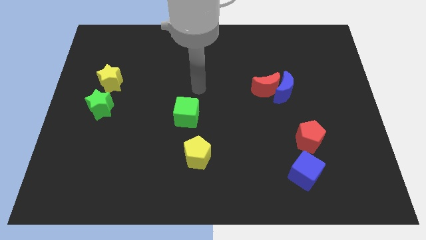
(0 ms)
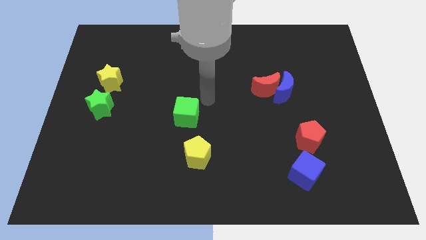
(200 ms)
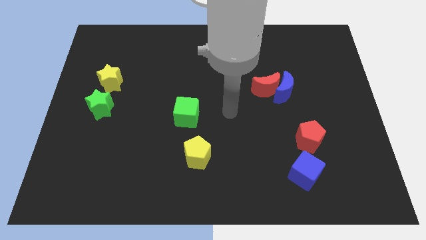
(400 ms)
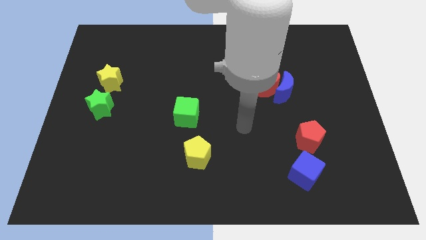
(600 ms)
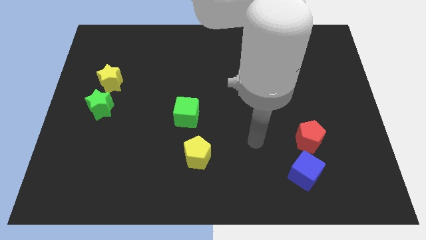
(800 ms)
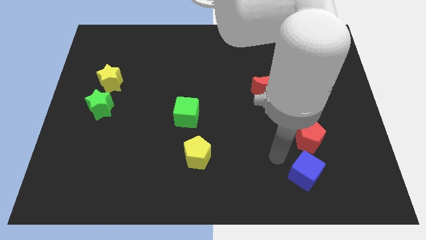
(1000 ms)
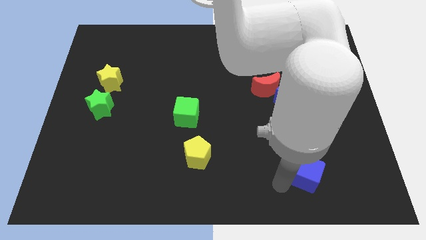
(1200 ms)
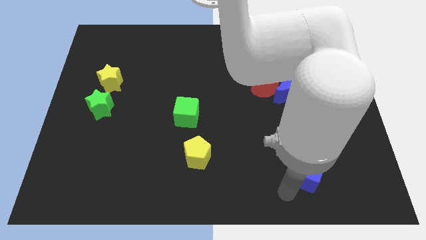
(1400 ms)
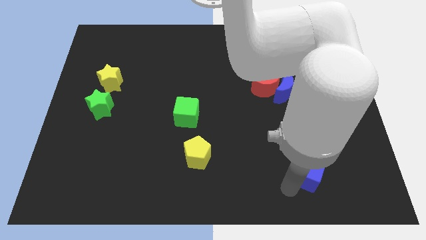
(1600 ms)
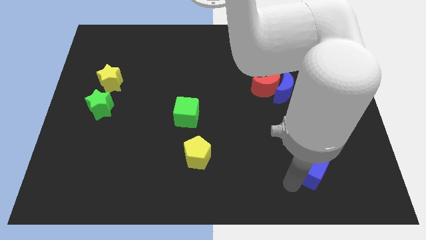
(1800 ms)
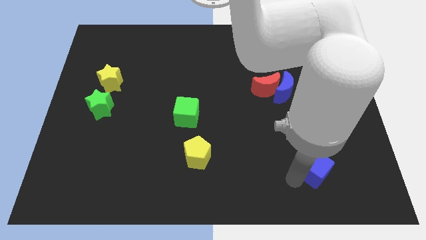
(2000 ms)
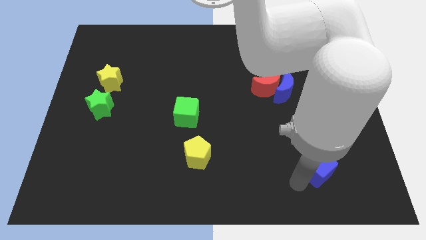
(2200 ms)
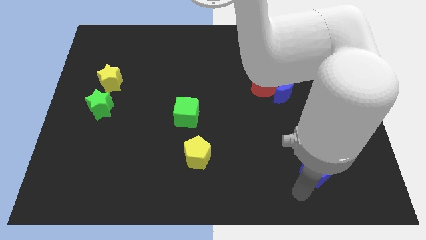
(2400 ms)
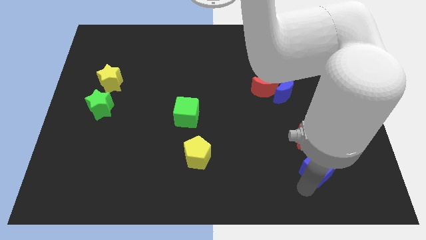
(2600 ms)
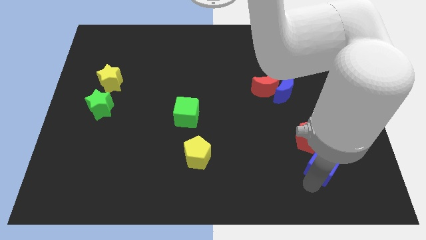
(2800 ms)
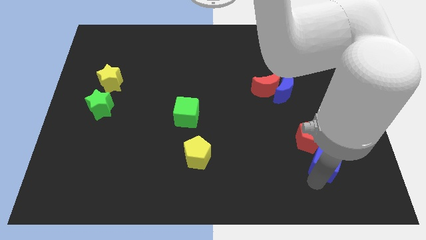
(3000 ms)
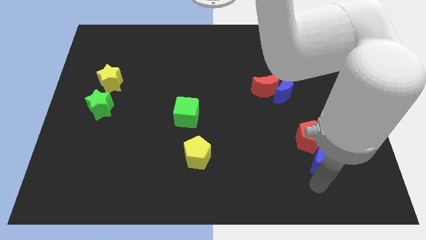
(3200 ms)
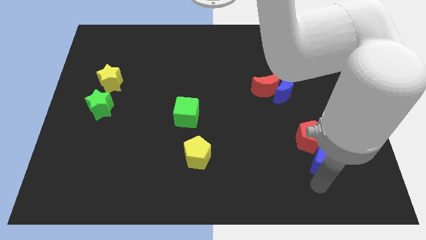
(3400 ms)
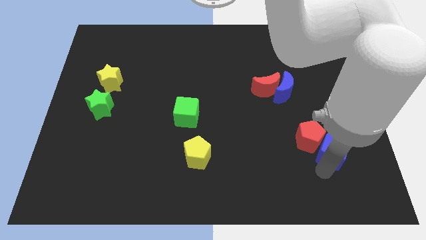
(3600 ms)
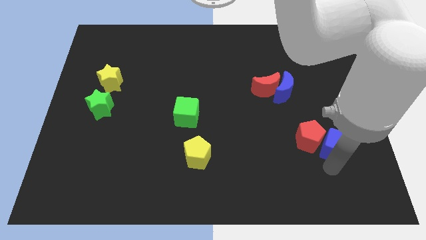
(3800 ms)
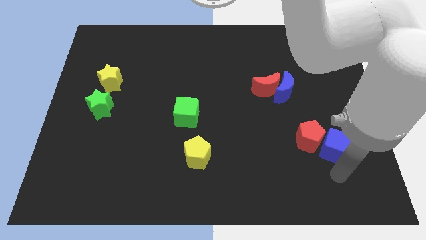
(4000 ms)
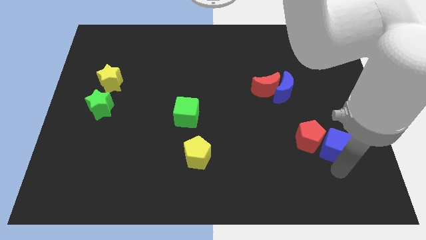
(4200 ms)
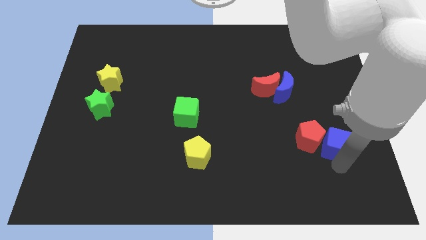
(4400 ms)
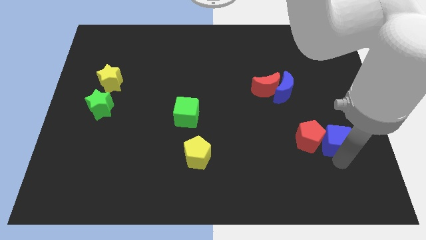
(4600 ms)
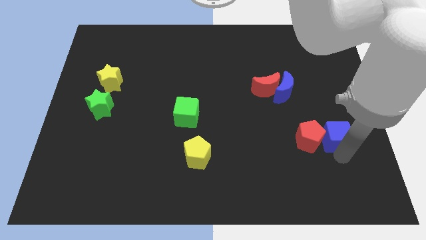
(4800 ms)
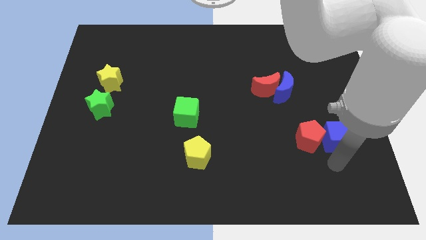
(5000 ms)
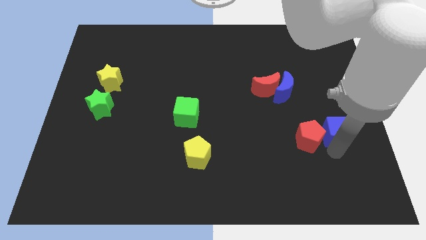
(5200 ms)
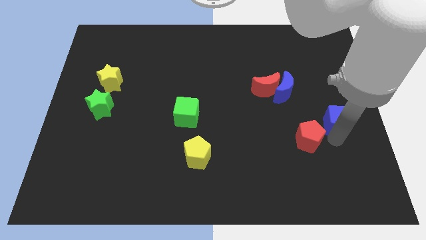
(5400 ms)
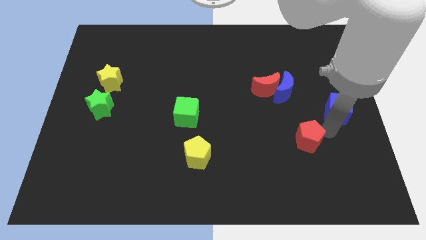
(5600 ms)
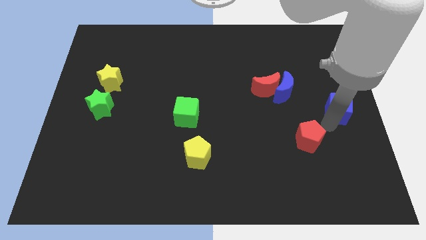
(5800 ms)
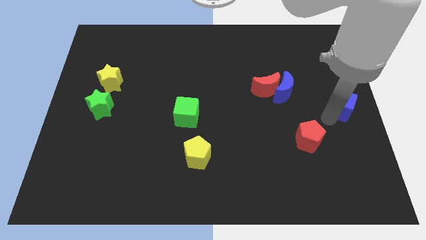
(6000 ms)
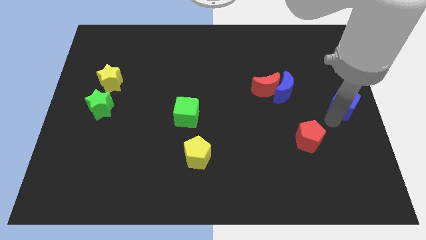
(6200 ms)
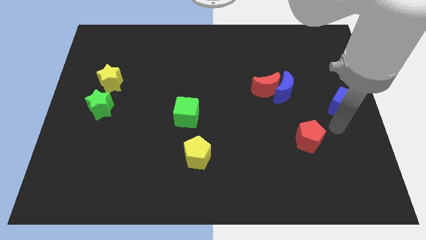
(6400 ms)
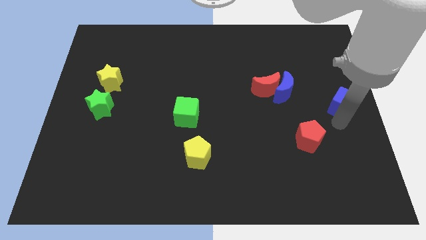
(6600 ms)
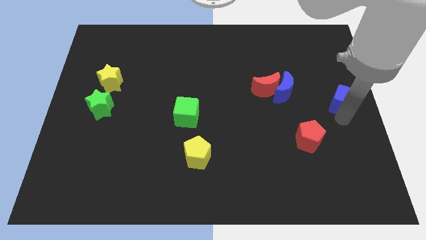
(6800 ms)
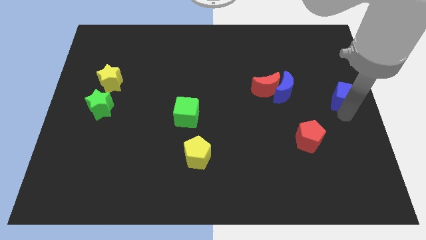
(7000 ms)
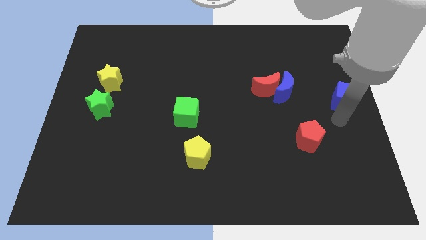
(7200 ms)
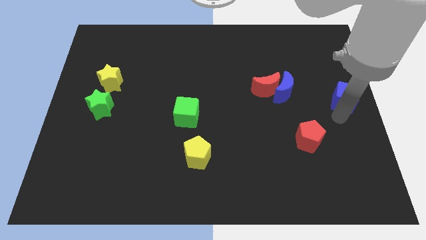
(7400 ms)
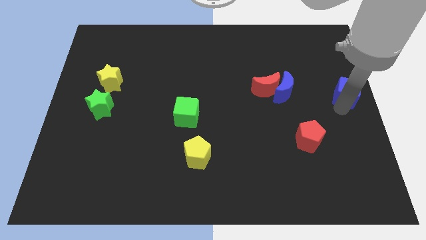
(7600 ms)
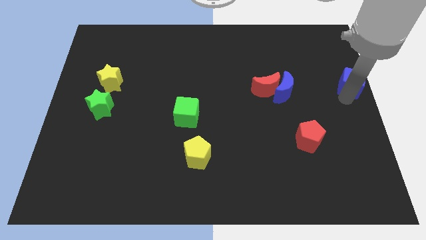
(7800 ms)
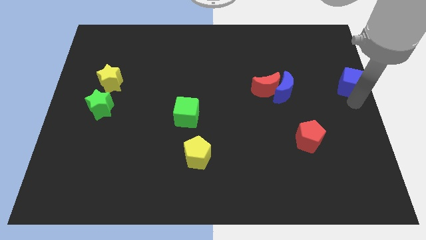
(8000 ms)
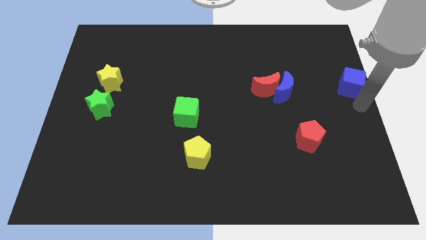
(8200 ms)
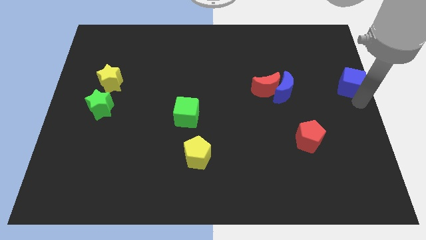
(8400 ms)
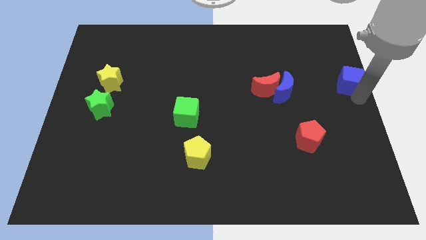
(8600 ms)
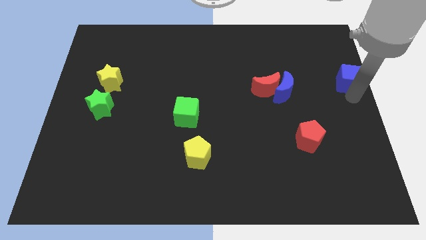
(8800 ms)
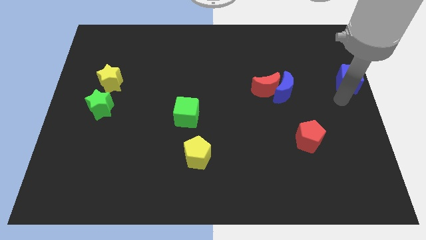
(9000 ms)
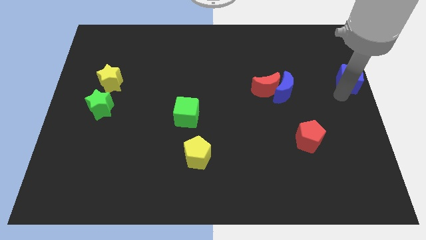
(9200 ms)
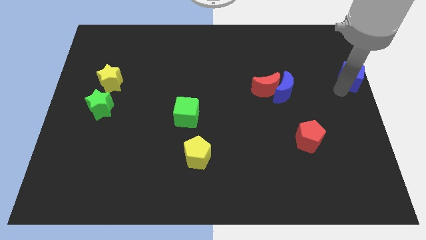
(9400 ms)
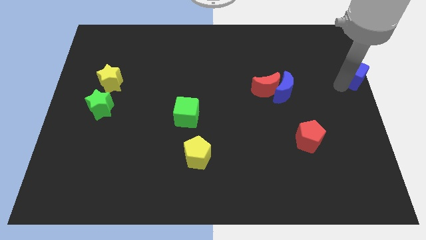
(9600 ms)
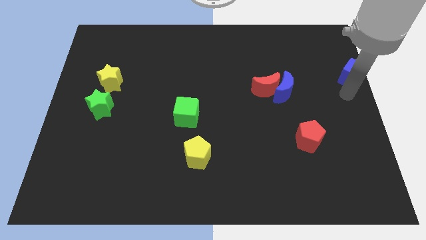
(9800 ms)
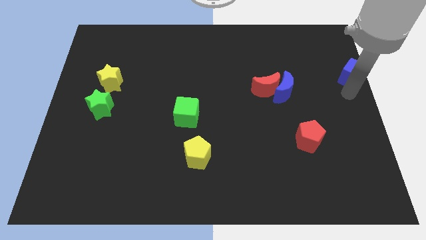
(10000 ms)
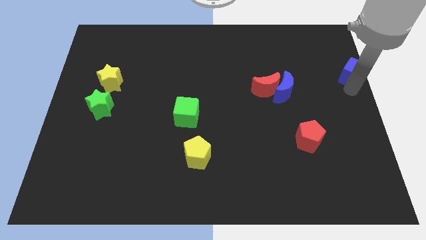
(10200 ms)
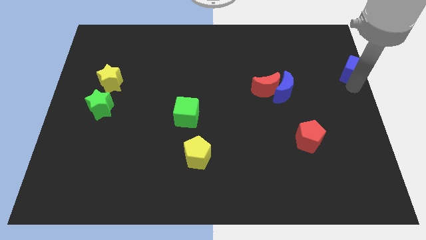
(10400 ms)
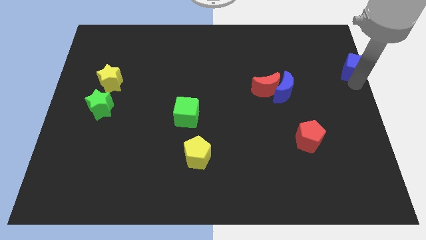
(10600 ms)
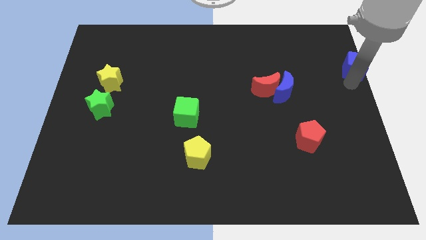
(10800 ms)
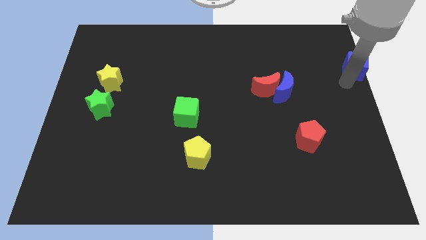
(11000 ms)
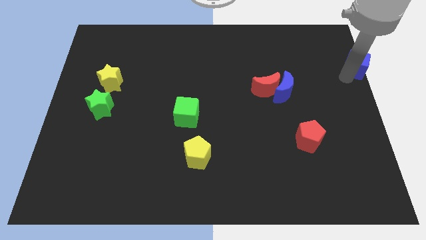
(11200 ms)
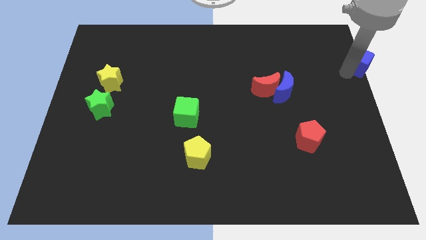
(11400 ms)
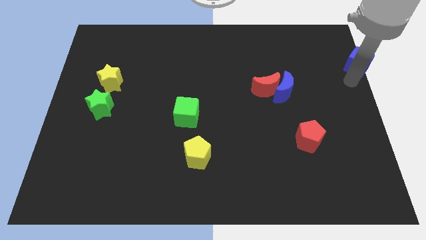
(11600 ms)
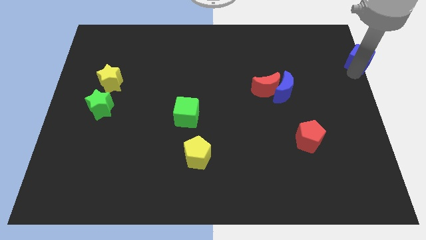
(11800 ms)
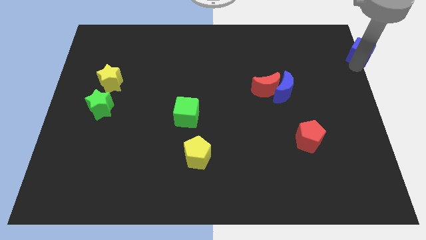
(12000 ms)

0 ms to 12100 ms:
slide the blue cube to the top right

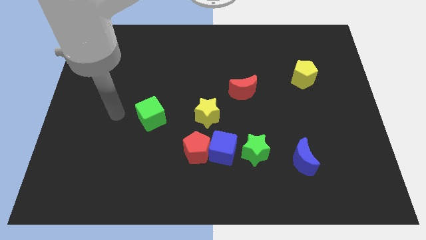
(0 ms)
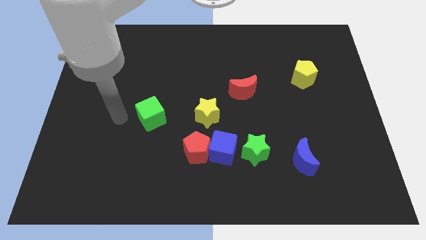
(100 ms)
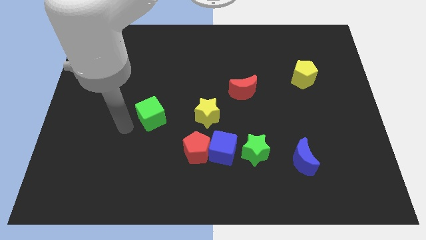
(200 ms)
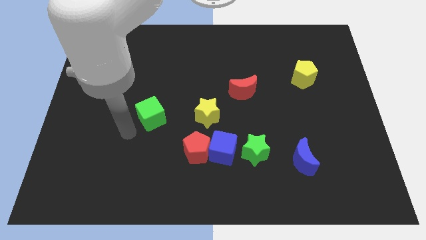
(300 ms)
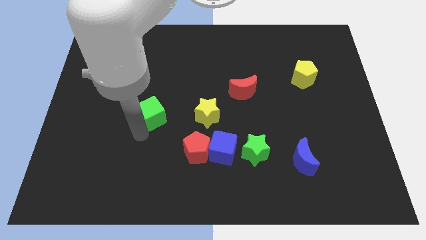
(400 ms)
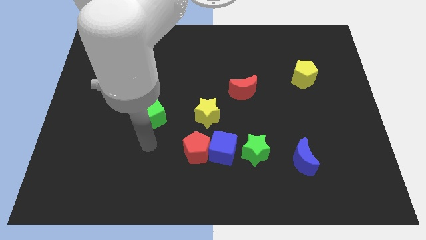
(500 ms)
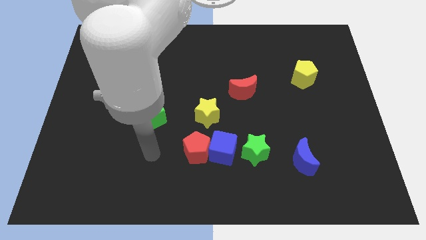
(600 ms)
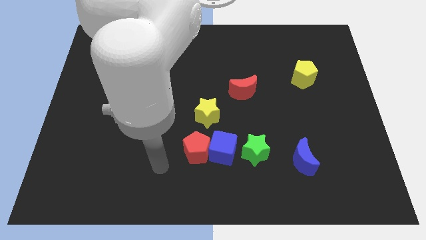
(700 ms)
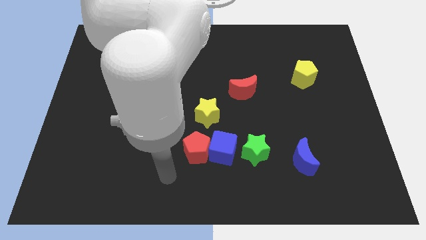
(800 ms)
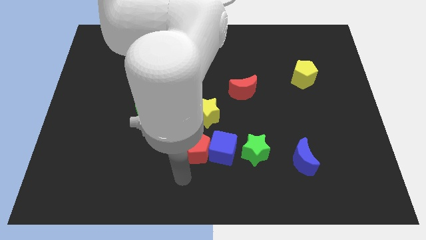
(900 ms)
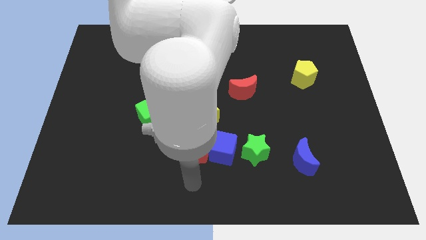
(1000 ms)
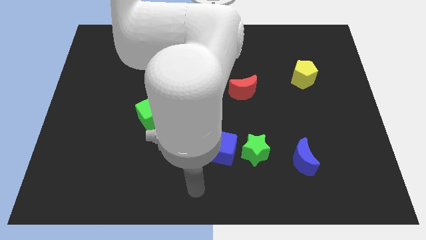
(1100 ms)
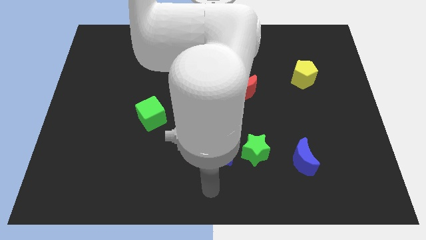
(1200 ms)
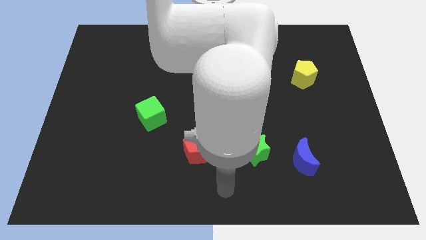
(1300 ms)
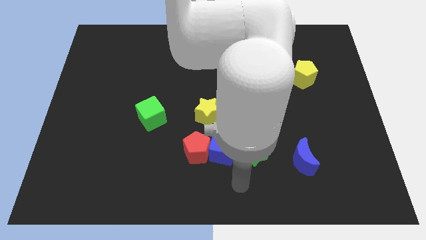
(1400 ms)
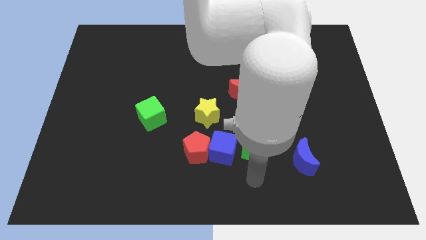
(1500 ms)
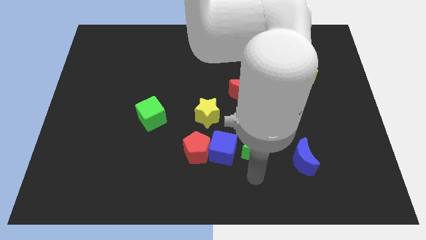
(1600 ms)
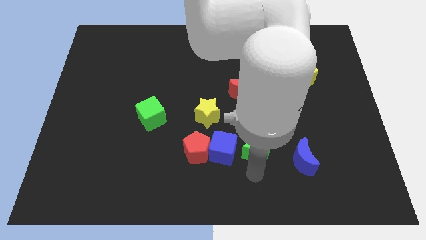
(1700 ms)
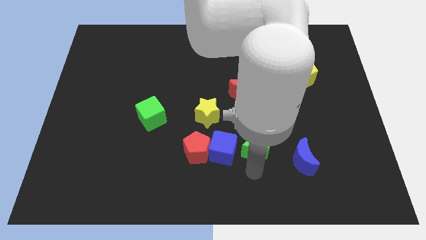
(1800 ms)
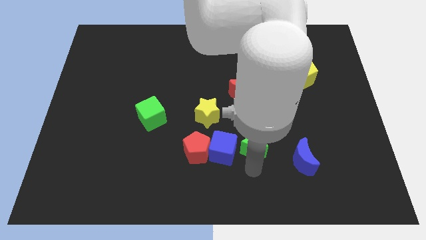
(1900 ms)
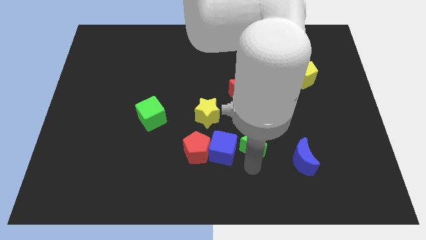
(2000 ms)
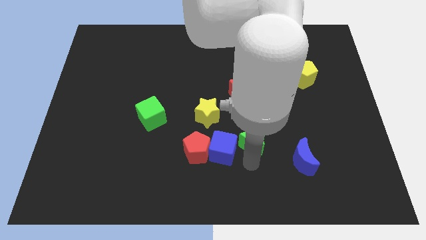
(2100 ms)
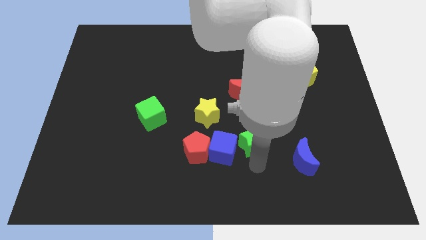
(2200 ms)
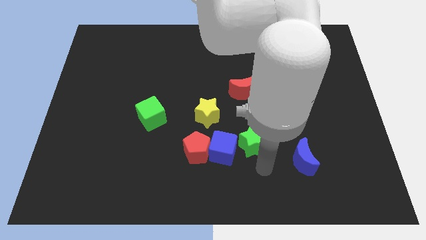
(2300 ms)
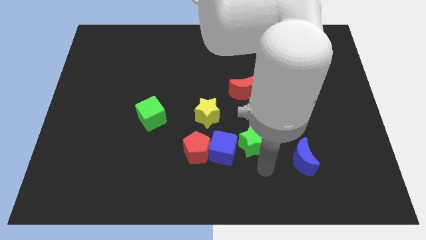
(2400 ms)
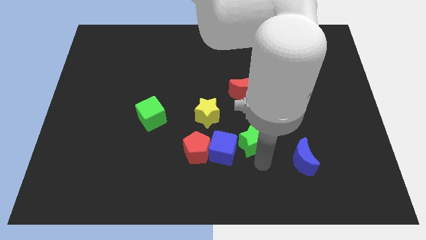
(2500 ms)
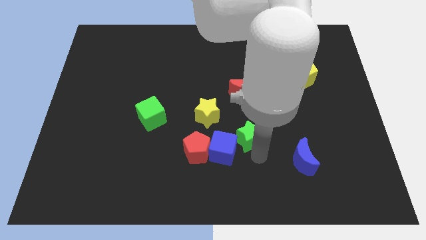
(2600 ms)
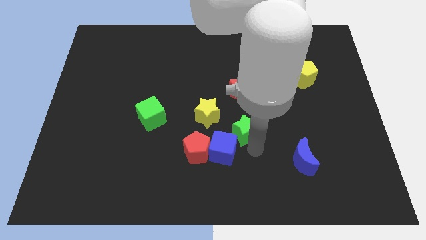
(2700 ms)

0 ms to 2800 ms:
move the green star to the center of the board
